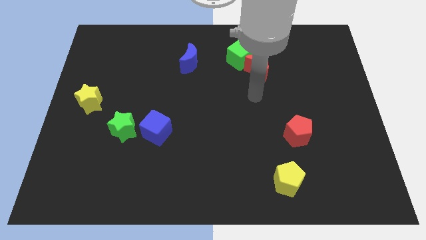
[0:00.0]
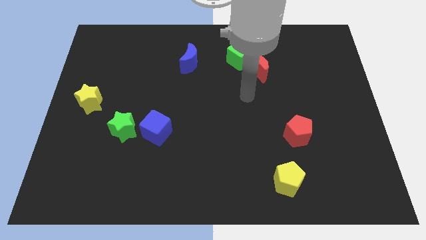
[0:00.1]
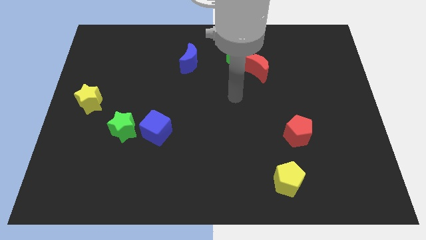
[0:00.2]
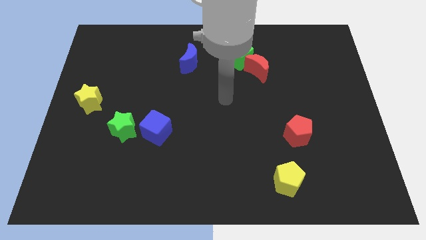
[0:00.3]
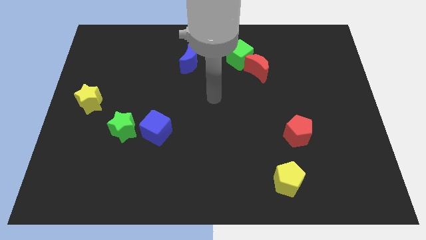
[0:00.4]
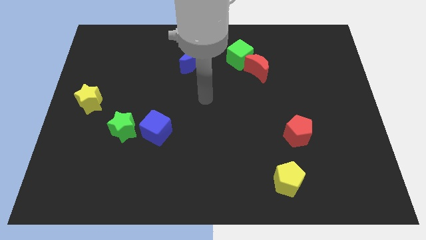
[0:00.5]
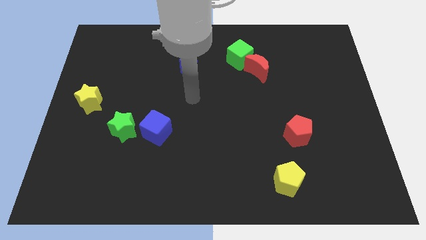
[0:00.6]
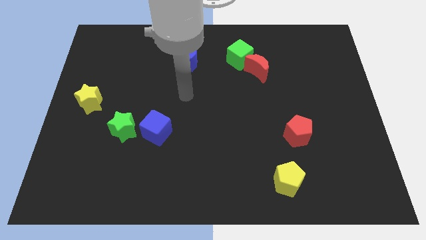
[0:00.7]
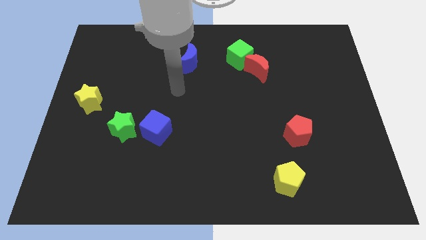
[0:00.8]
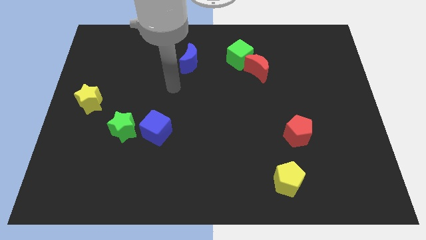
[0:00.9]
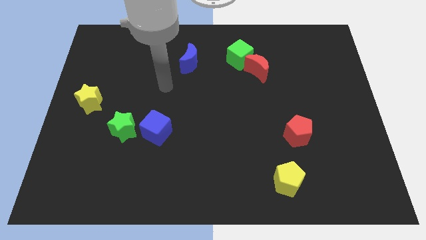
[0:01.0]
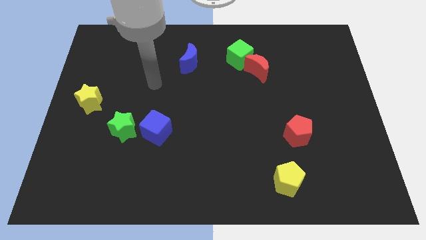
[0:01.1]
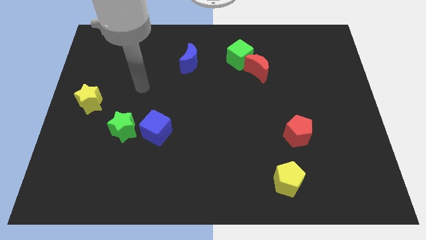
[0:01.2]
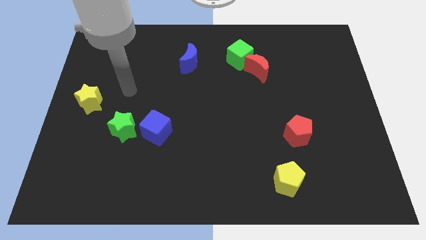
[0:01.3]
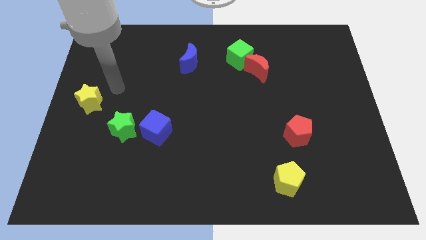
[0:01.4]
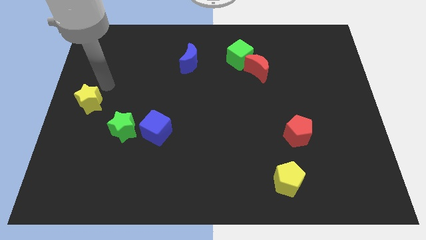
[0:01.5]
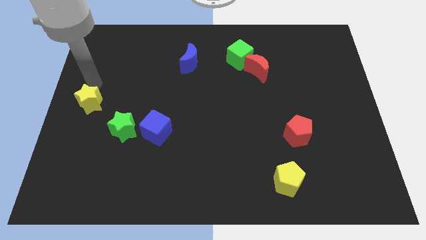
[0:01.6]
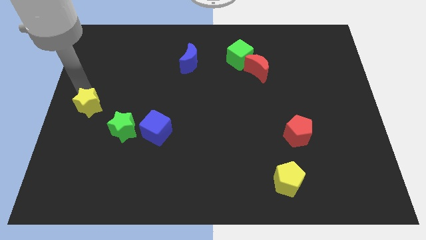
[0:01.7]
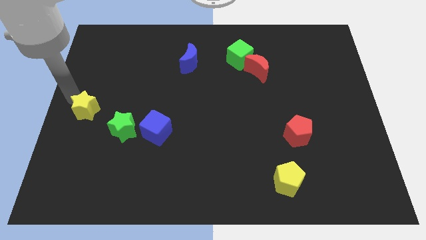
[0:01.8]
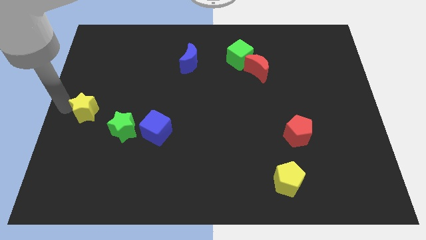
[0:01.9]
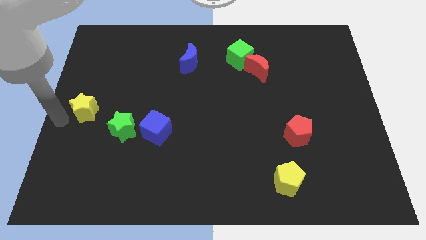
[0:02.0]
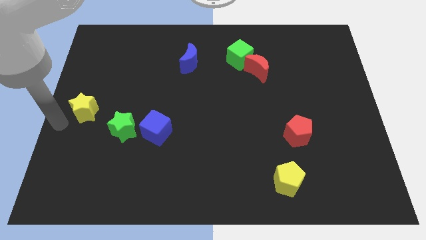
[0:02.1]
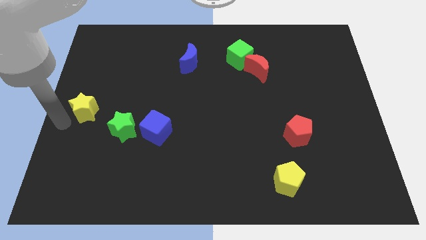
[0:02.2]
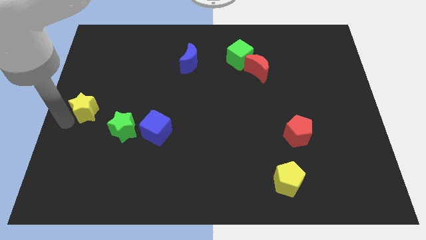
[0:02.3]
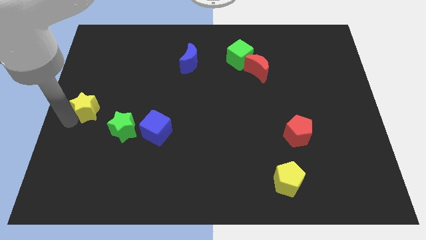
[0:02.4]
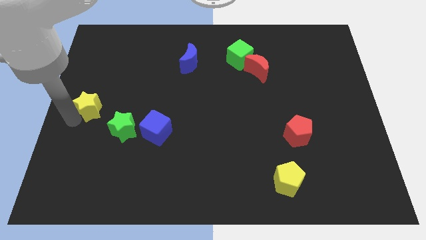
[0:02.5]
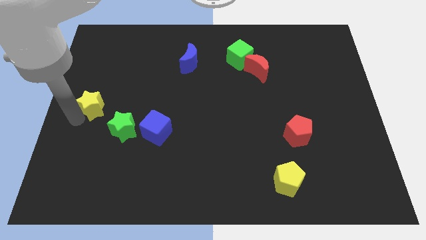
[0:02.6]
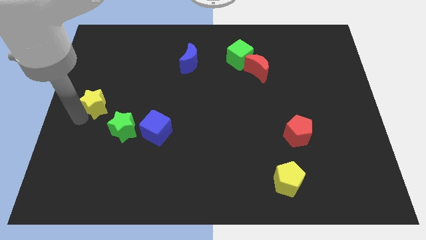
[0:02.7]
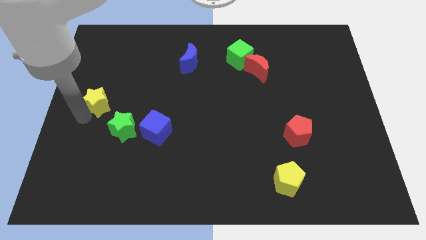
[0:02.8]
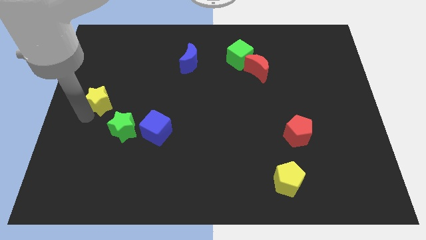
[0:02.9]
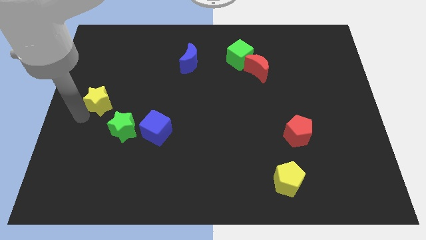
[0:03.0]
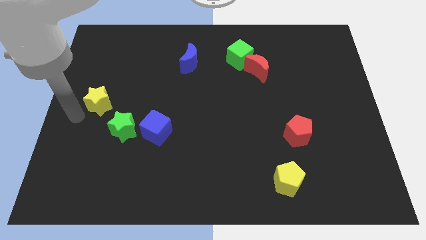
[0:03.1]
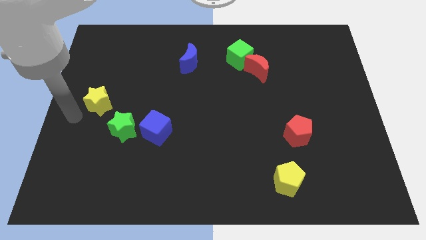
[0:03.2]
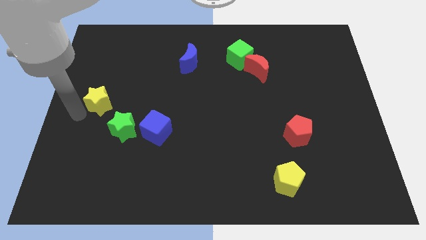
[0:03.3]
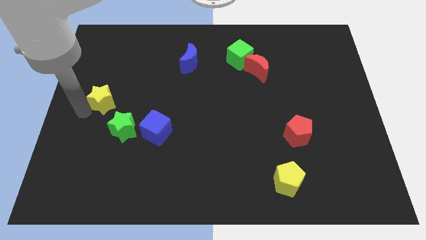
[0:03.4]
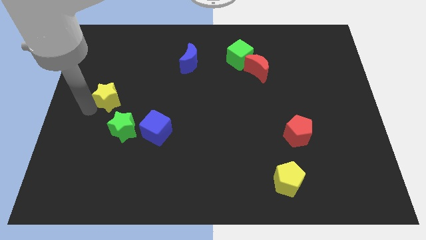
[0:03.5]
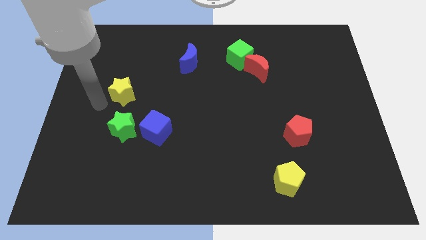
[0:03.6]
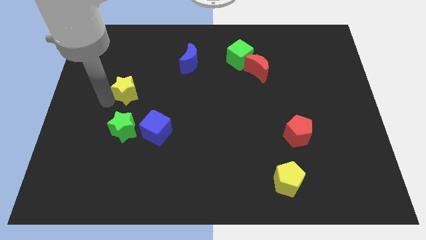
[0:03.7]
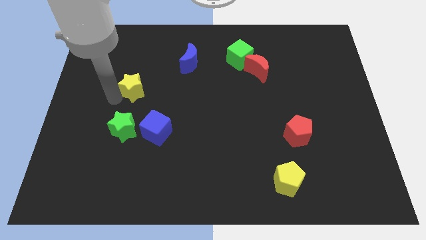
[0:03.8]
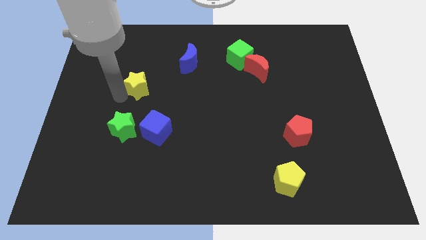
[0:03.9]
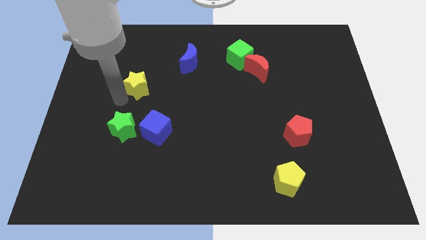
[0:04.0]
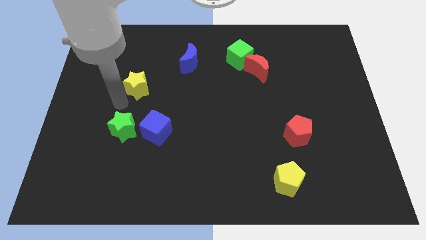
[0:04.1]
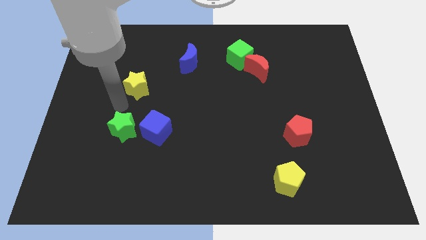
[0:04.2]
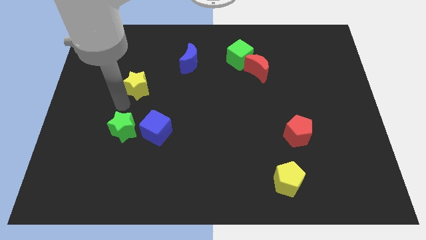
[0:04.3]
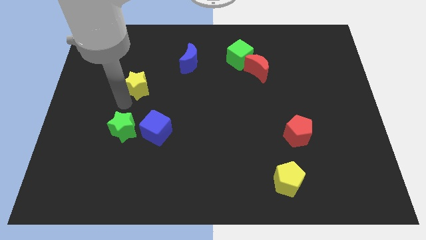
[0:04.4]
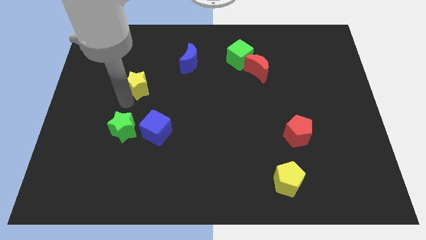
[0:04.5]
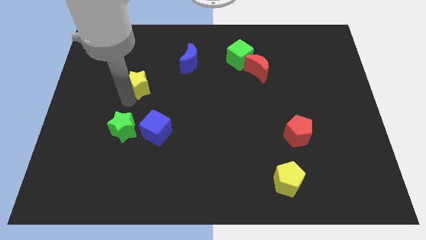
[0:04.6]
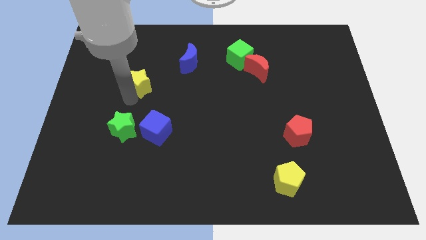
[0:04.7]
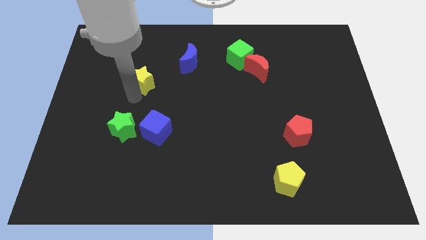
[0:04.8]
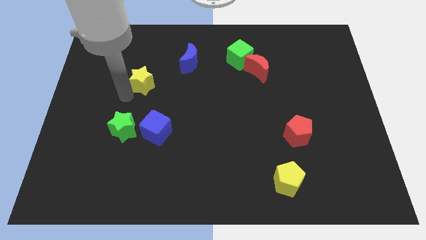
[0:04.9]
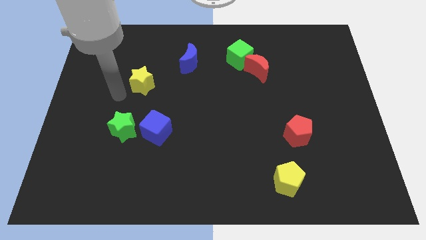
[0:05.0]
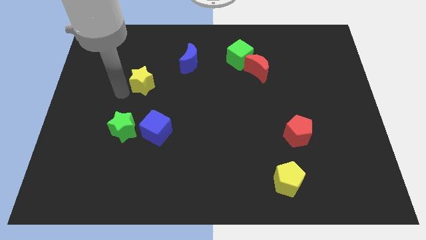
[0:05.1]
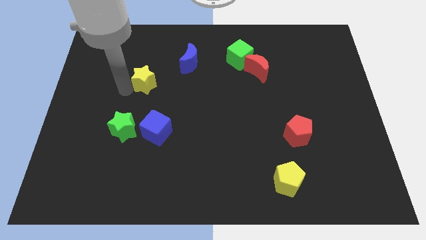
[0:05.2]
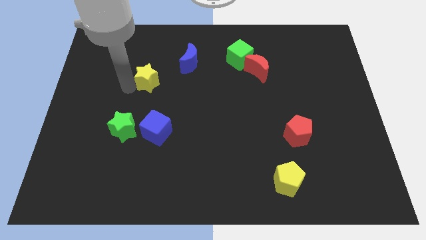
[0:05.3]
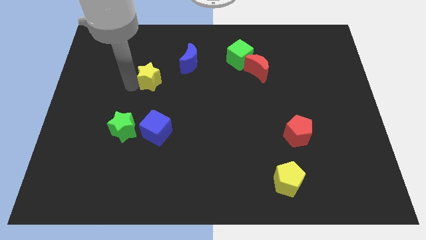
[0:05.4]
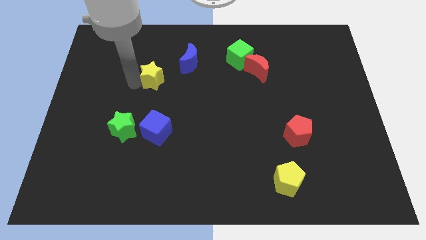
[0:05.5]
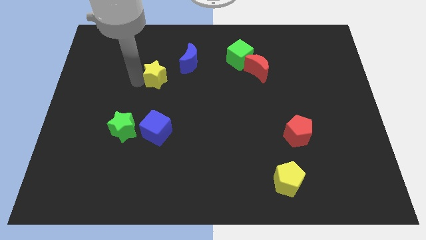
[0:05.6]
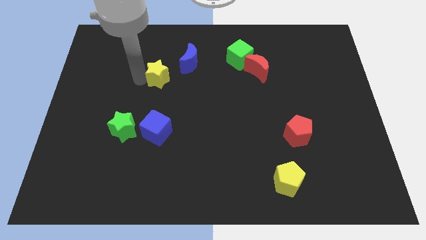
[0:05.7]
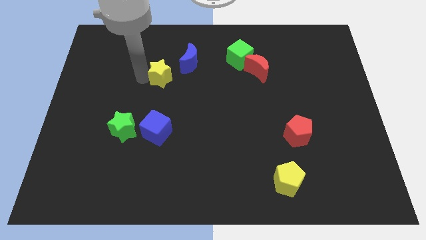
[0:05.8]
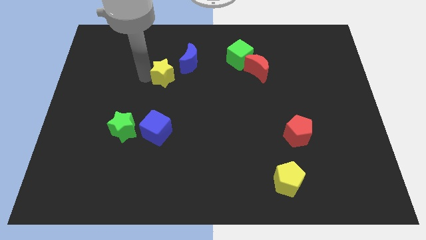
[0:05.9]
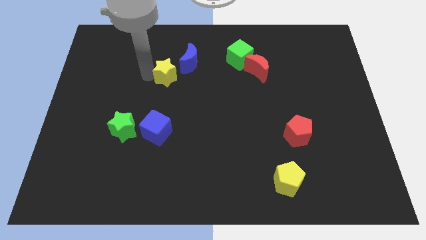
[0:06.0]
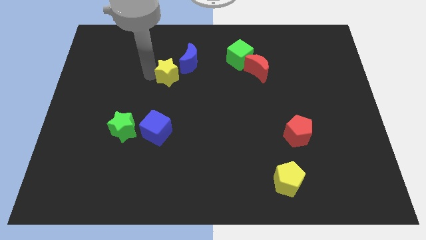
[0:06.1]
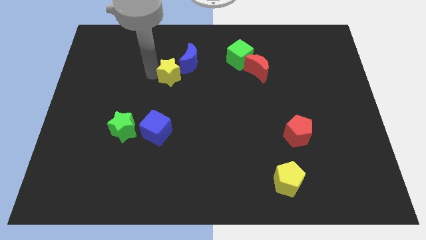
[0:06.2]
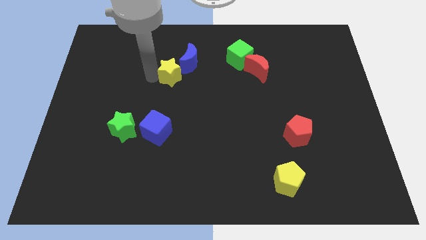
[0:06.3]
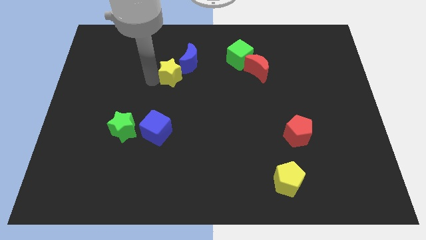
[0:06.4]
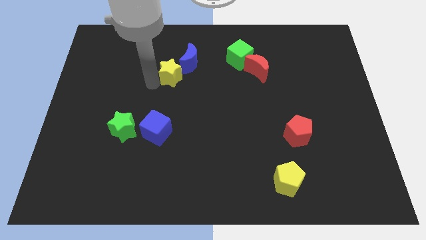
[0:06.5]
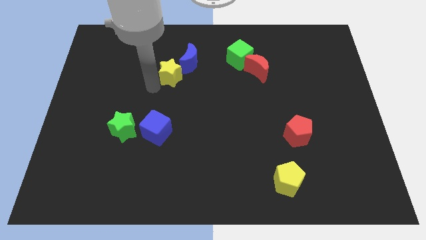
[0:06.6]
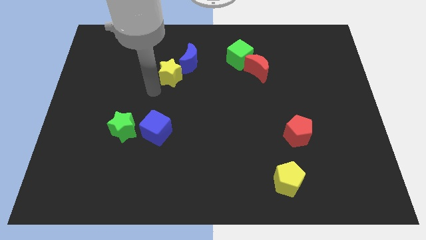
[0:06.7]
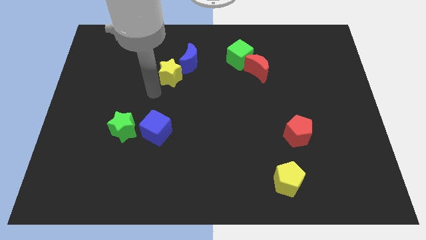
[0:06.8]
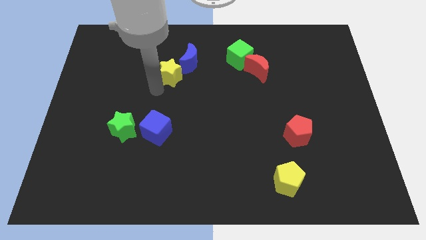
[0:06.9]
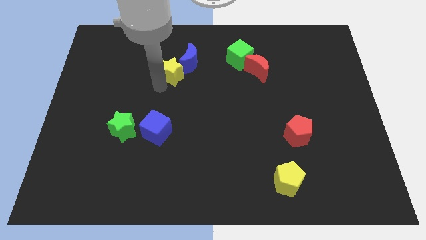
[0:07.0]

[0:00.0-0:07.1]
slide the yellow star close to the blue moon

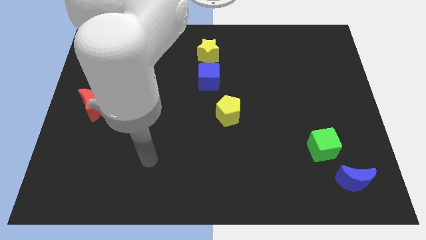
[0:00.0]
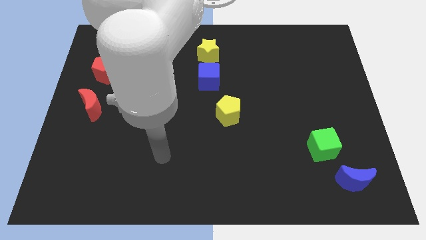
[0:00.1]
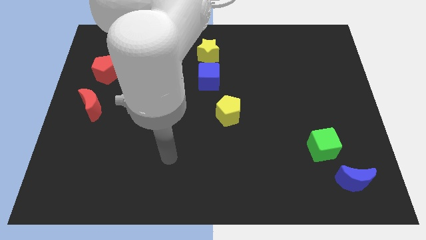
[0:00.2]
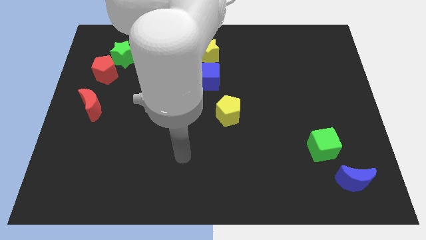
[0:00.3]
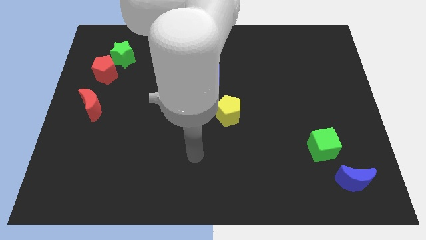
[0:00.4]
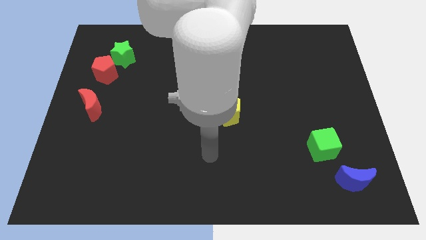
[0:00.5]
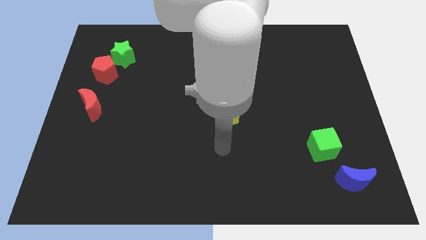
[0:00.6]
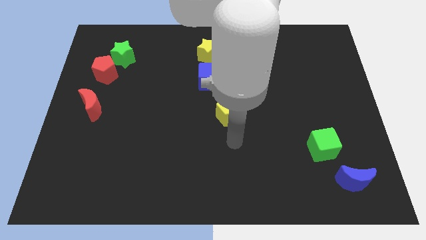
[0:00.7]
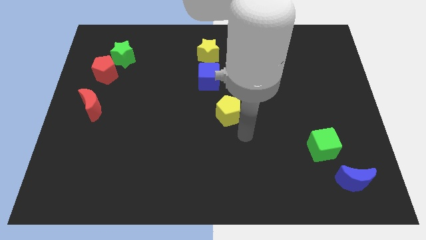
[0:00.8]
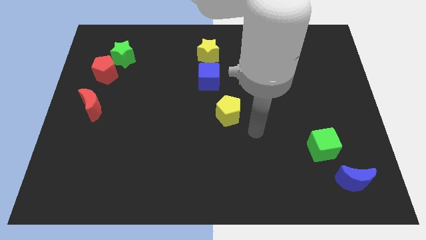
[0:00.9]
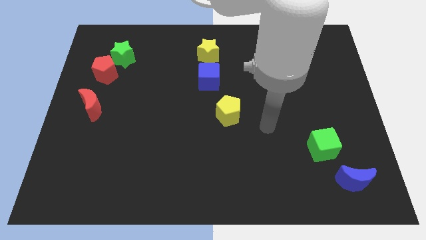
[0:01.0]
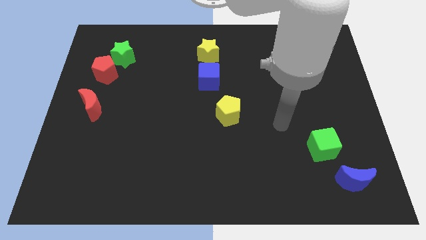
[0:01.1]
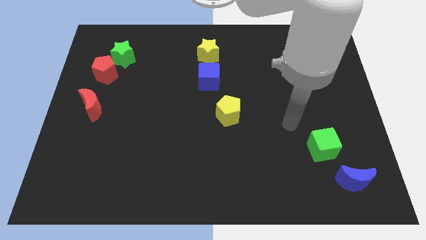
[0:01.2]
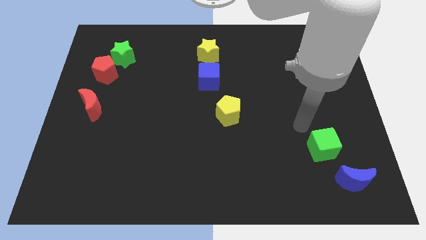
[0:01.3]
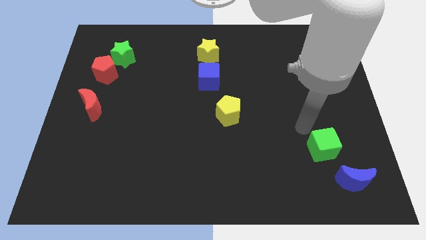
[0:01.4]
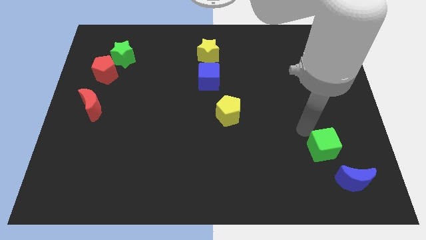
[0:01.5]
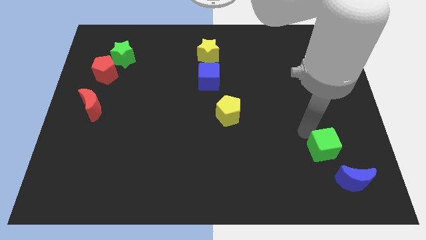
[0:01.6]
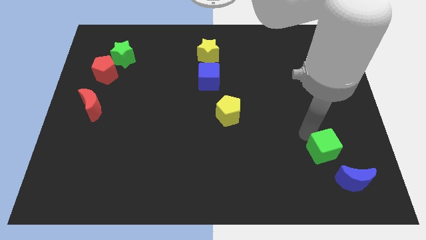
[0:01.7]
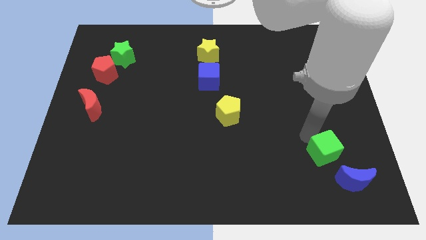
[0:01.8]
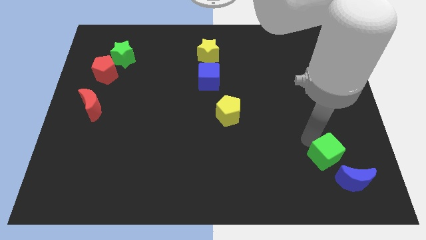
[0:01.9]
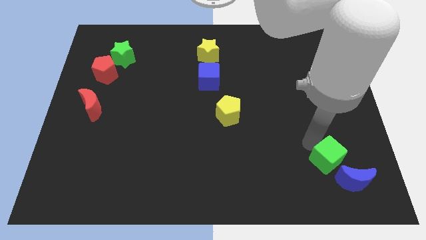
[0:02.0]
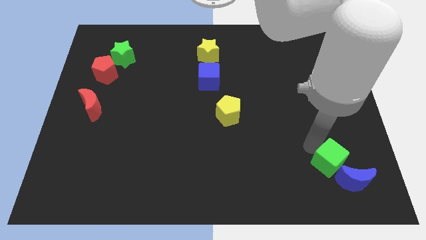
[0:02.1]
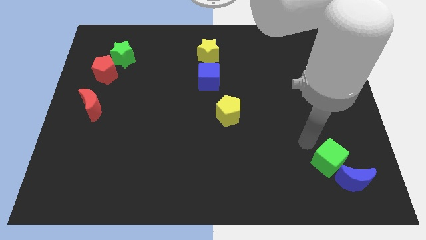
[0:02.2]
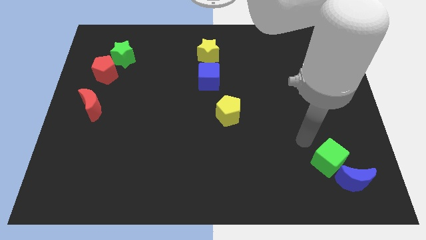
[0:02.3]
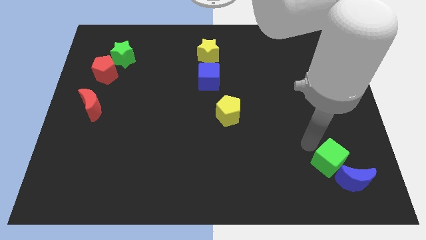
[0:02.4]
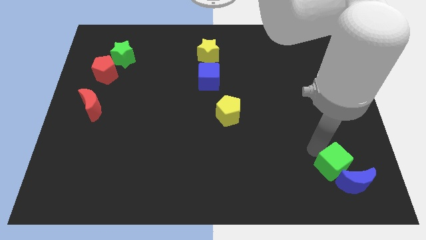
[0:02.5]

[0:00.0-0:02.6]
push the green cube towards the blue moon
